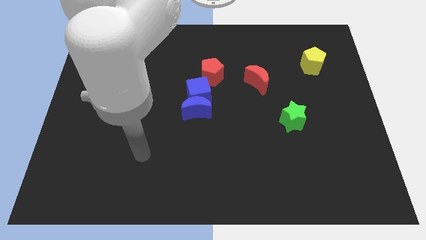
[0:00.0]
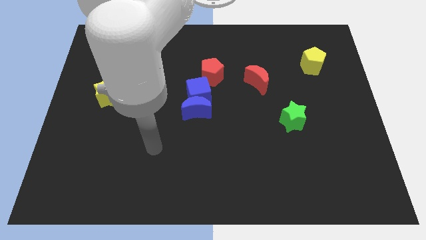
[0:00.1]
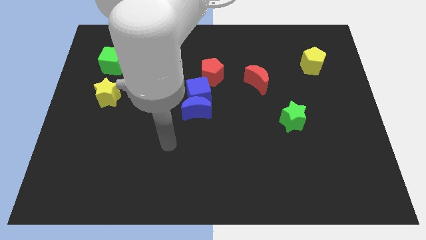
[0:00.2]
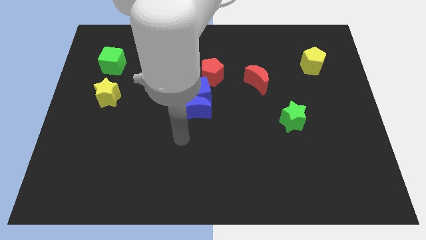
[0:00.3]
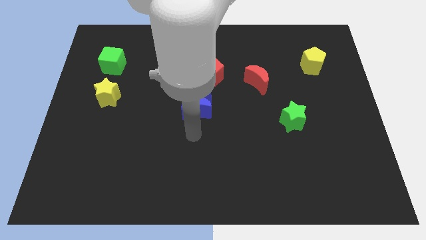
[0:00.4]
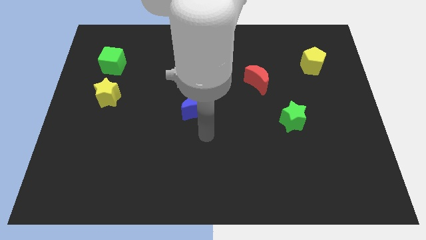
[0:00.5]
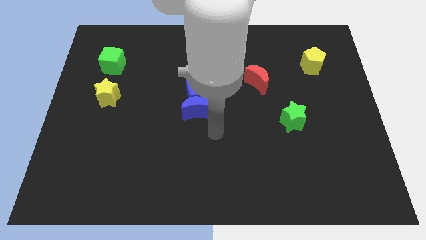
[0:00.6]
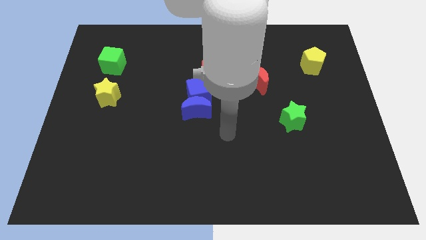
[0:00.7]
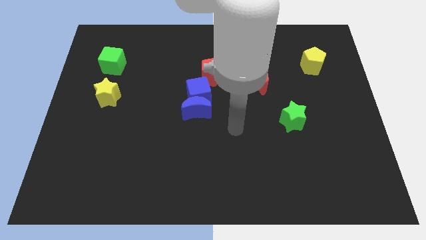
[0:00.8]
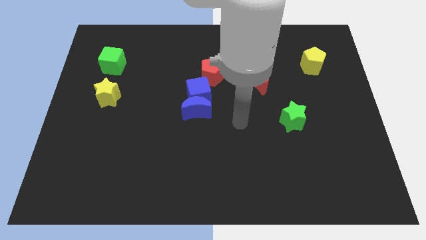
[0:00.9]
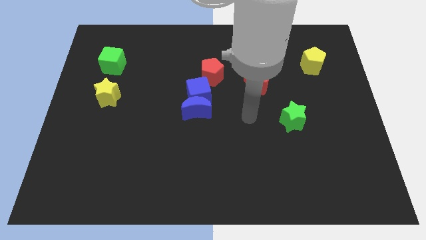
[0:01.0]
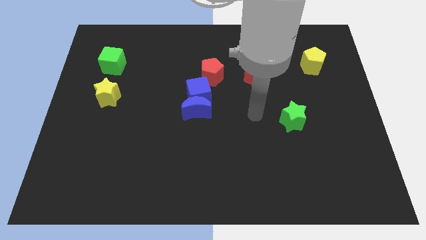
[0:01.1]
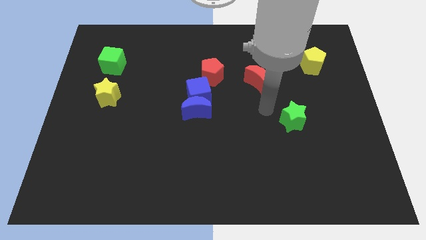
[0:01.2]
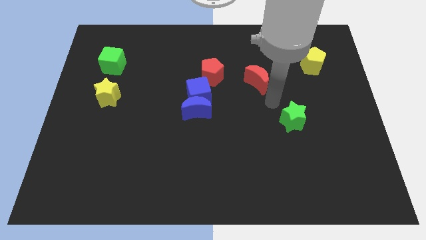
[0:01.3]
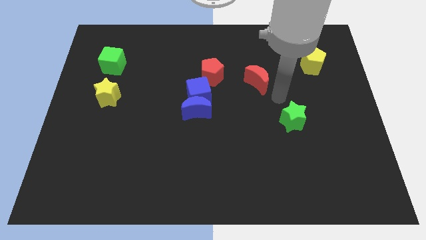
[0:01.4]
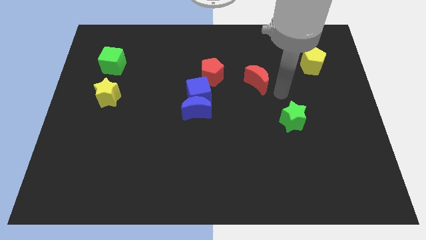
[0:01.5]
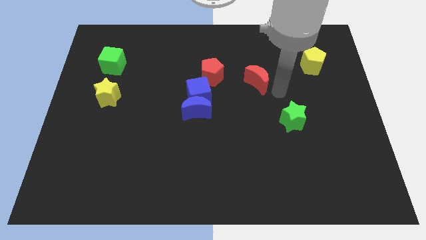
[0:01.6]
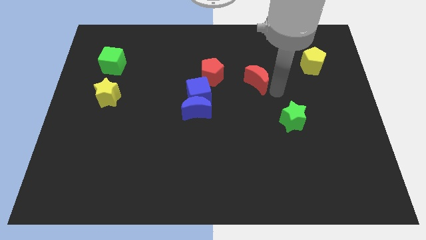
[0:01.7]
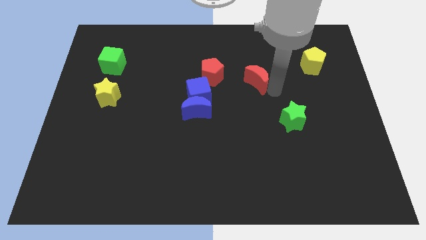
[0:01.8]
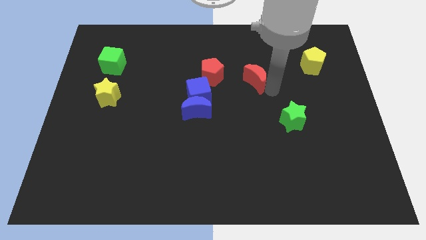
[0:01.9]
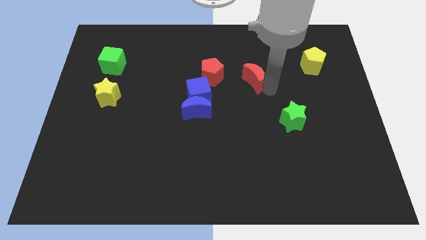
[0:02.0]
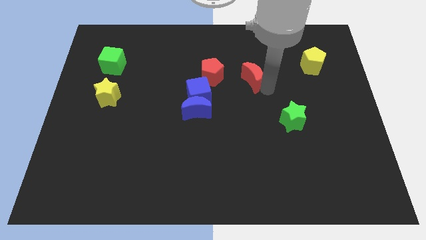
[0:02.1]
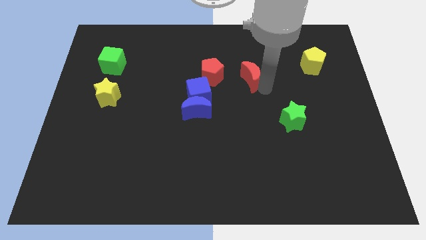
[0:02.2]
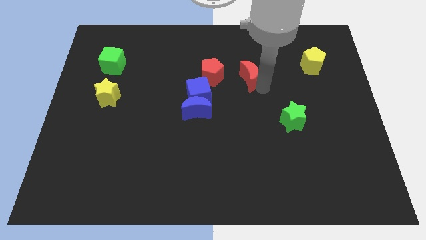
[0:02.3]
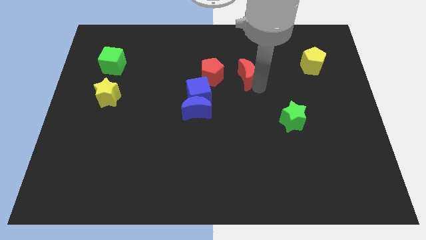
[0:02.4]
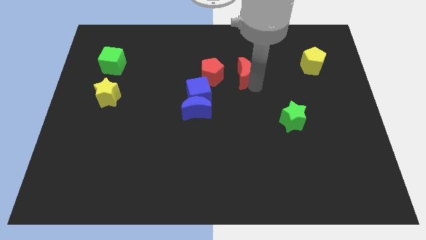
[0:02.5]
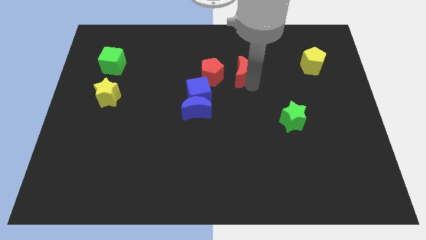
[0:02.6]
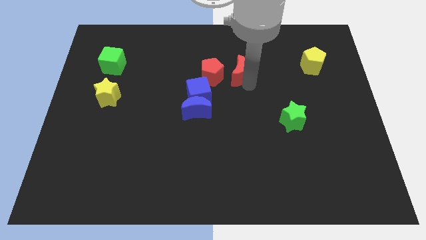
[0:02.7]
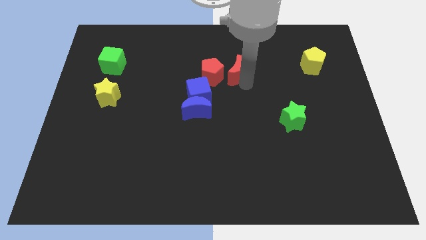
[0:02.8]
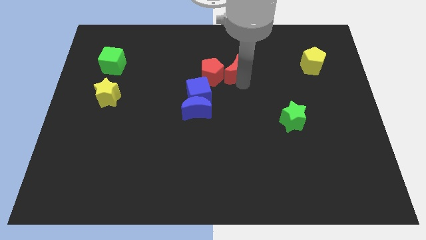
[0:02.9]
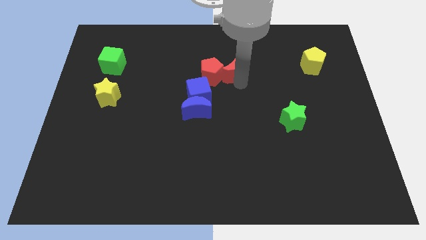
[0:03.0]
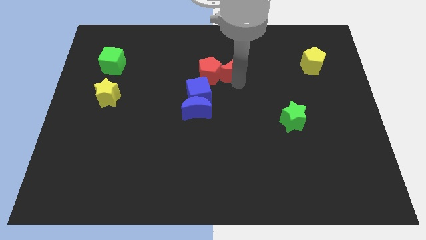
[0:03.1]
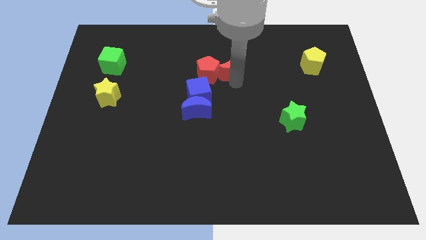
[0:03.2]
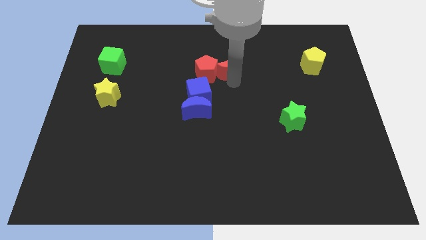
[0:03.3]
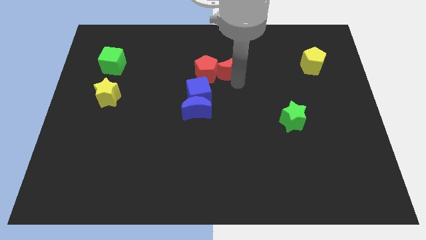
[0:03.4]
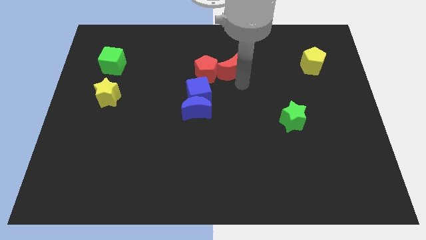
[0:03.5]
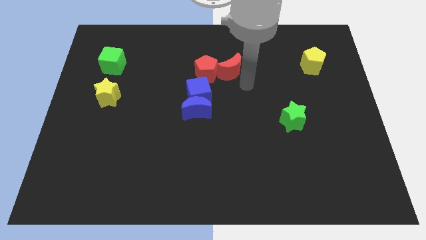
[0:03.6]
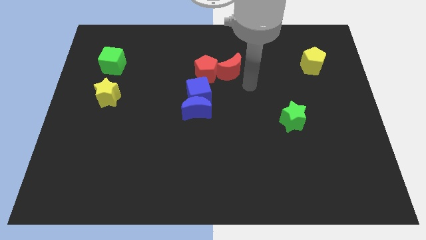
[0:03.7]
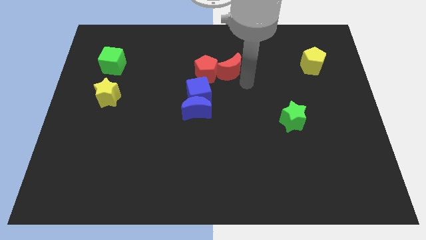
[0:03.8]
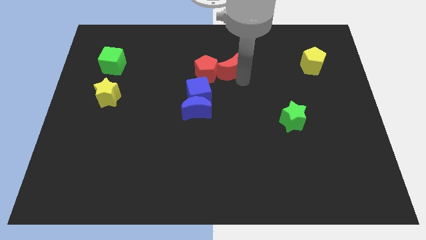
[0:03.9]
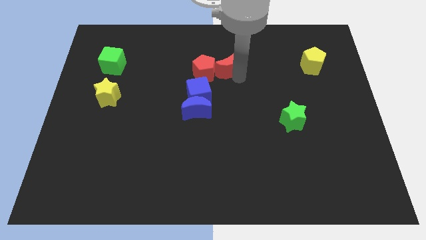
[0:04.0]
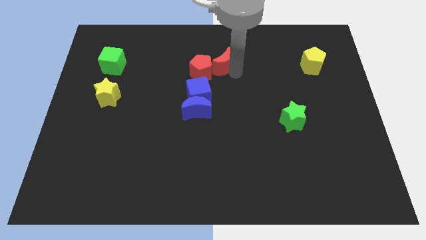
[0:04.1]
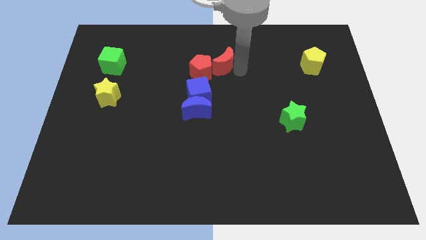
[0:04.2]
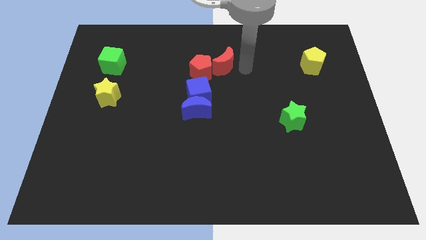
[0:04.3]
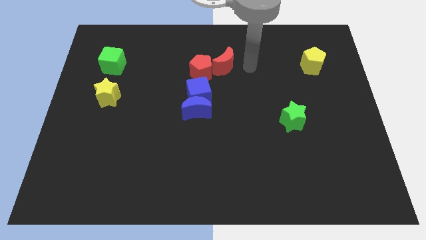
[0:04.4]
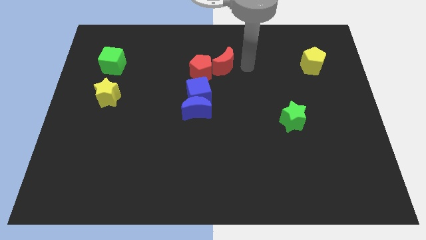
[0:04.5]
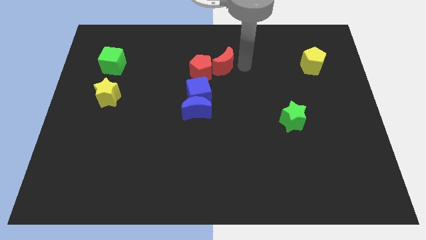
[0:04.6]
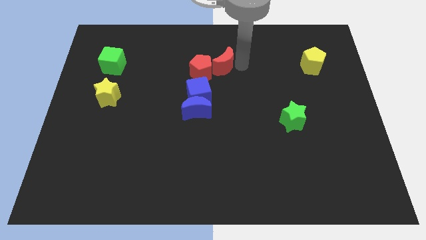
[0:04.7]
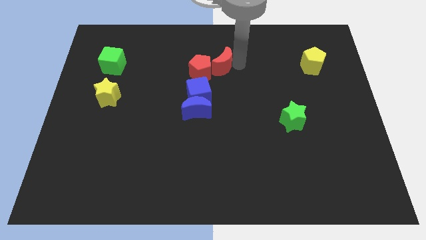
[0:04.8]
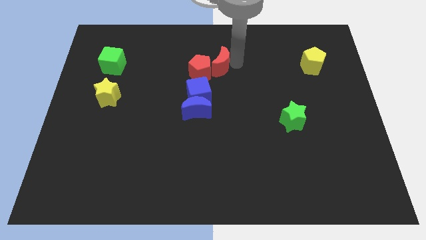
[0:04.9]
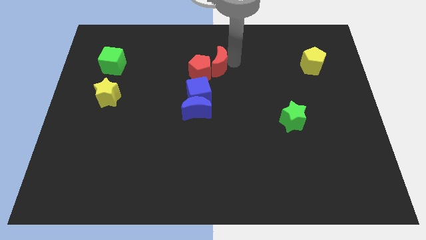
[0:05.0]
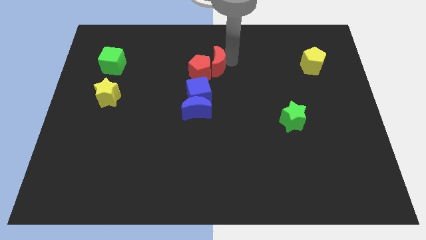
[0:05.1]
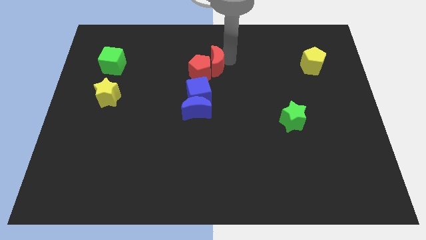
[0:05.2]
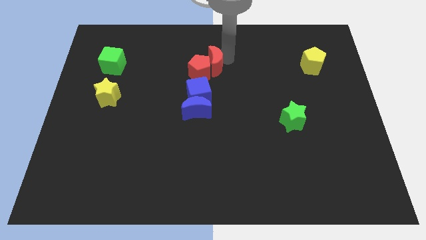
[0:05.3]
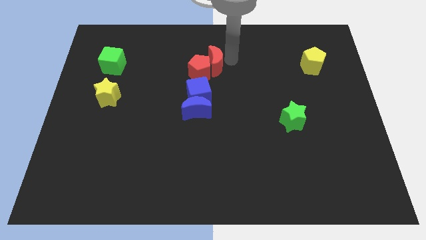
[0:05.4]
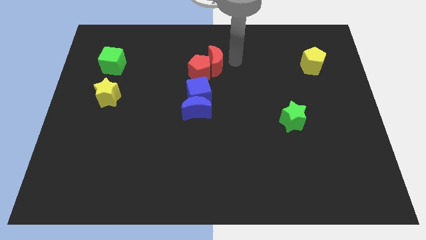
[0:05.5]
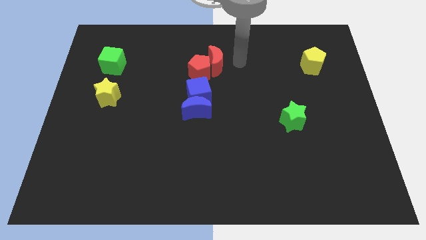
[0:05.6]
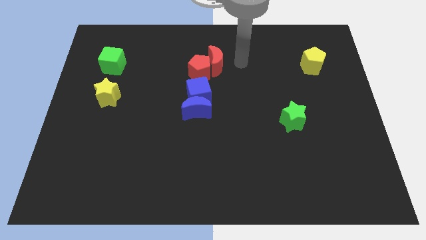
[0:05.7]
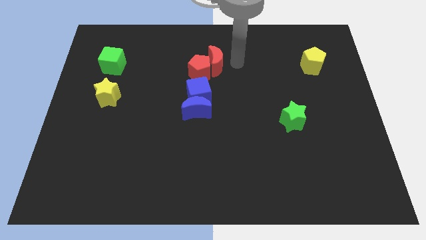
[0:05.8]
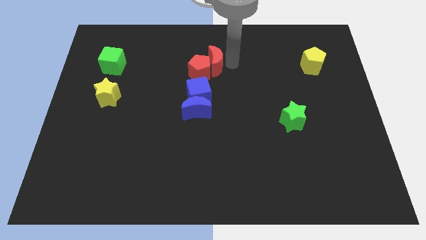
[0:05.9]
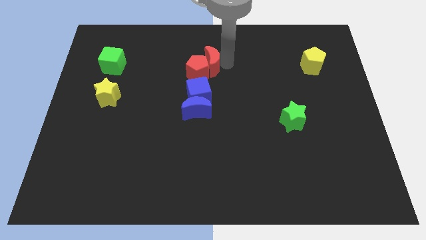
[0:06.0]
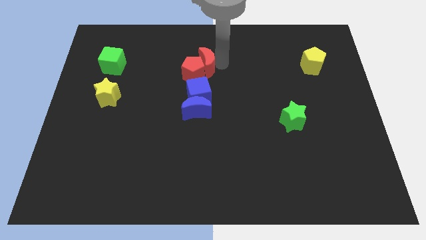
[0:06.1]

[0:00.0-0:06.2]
slide the red moon above the blue moon
